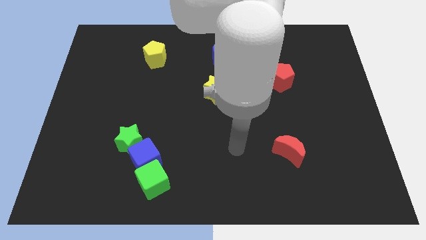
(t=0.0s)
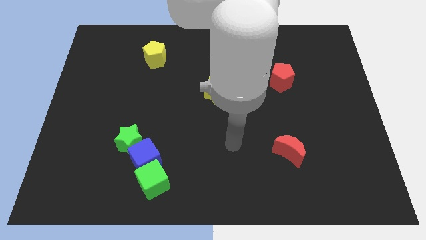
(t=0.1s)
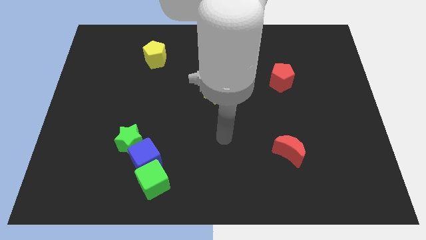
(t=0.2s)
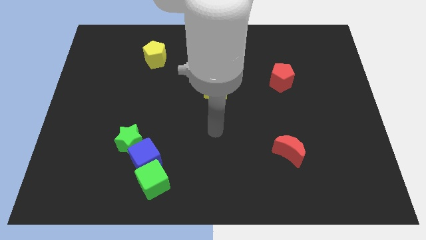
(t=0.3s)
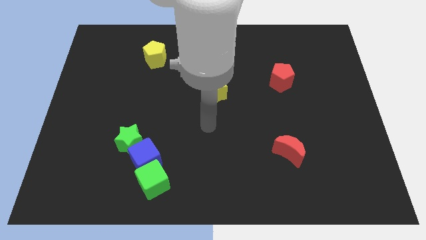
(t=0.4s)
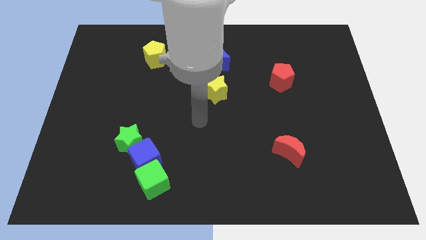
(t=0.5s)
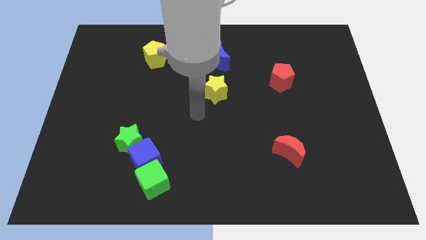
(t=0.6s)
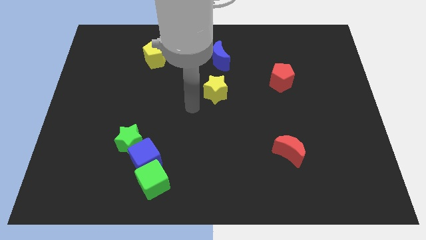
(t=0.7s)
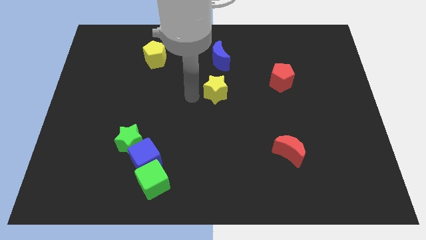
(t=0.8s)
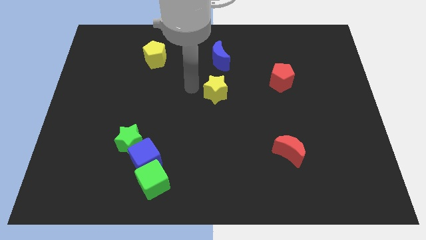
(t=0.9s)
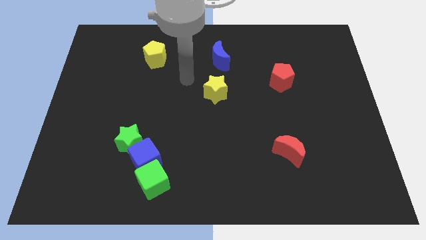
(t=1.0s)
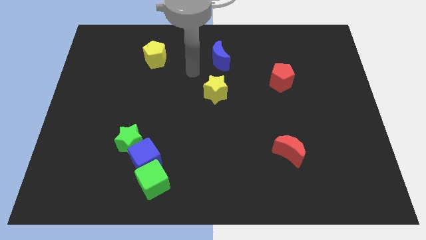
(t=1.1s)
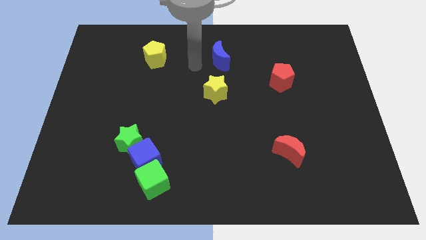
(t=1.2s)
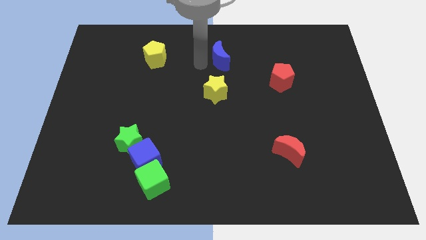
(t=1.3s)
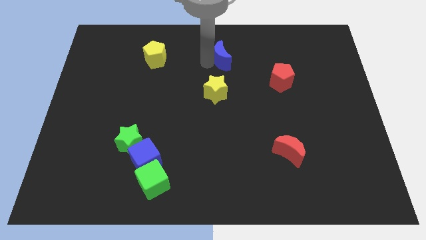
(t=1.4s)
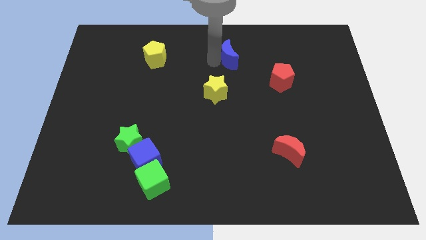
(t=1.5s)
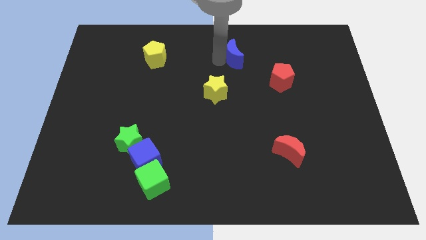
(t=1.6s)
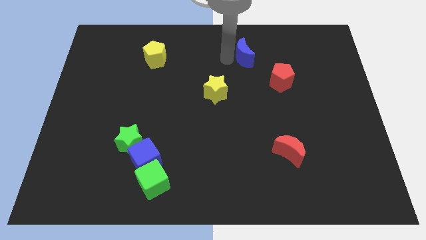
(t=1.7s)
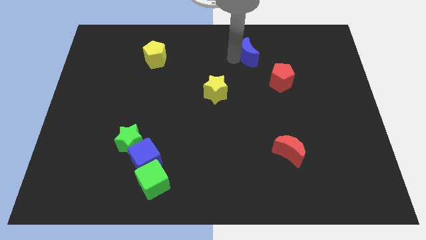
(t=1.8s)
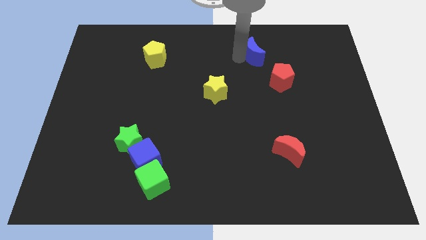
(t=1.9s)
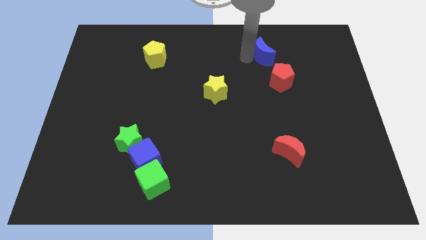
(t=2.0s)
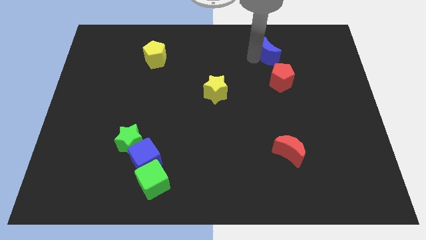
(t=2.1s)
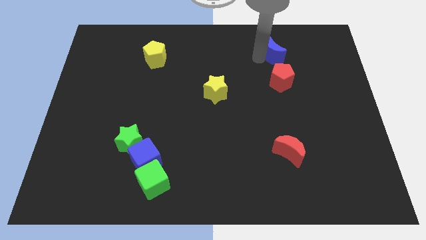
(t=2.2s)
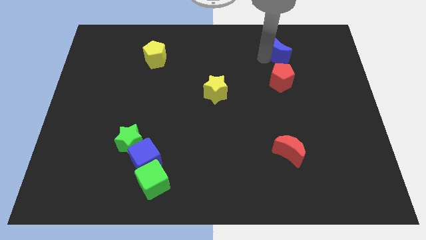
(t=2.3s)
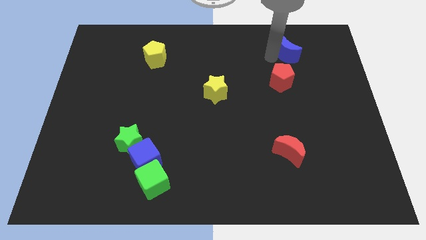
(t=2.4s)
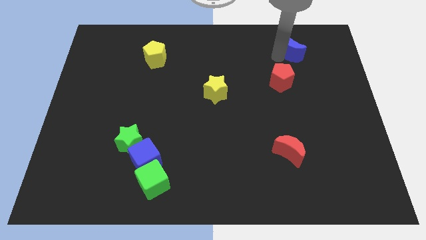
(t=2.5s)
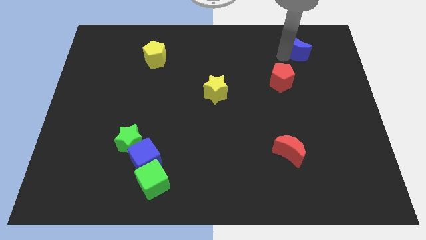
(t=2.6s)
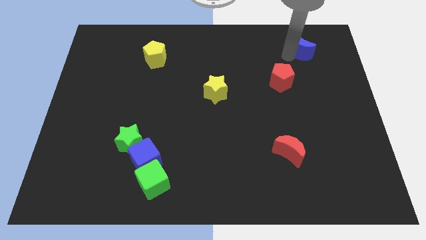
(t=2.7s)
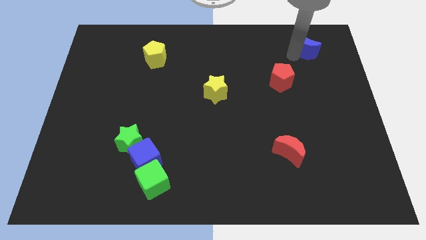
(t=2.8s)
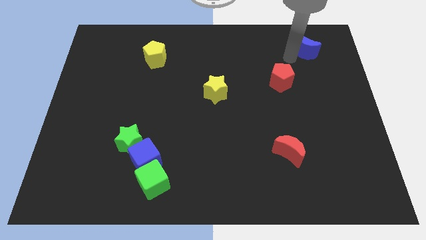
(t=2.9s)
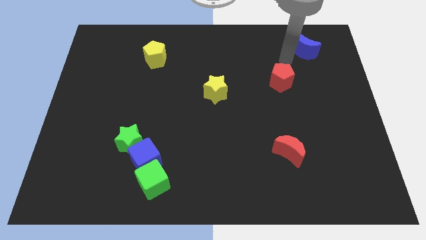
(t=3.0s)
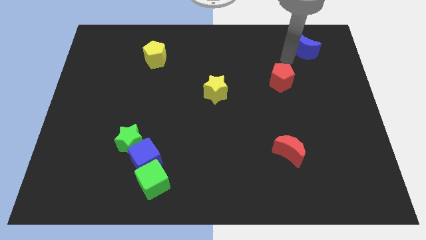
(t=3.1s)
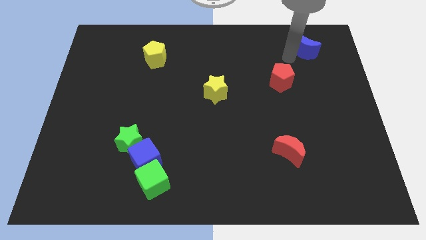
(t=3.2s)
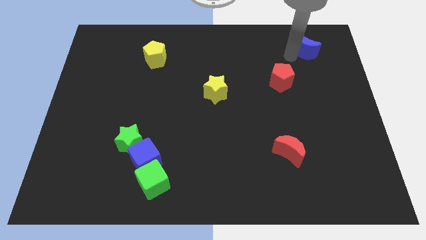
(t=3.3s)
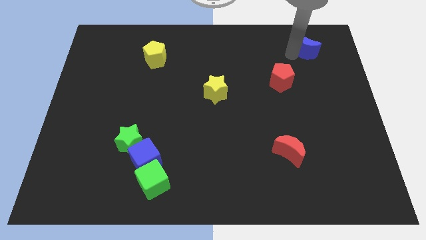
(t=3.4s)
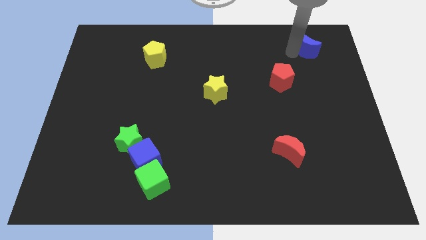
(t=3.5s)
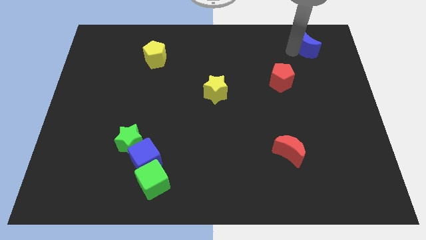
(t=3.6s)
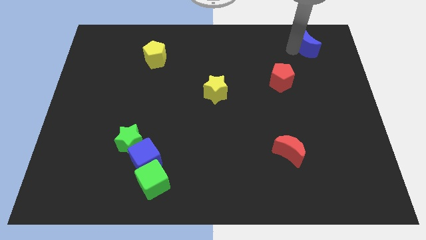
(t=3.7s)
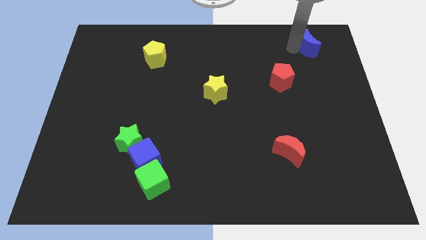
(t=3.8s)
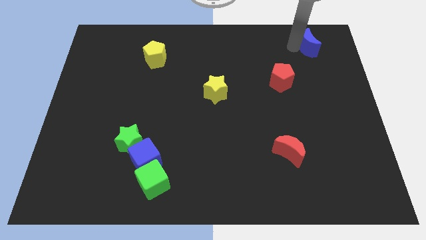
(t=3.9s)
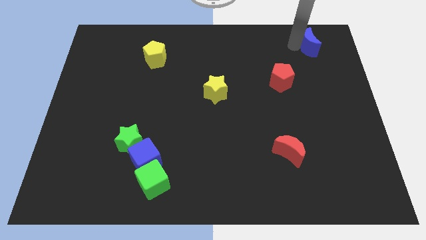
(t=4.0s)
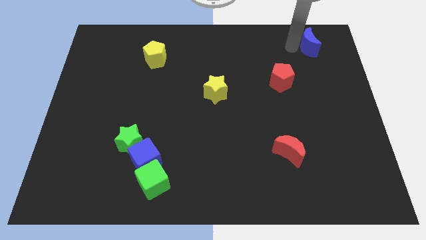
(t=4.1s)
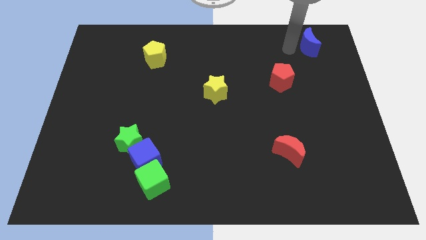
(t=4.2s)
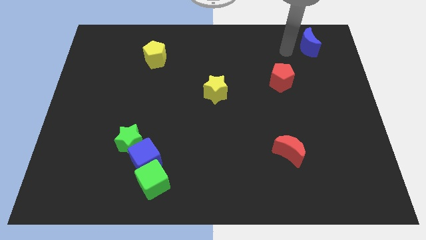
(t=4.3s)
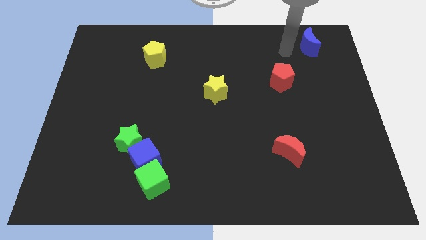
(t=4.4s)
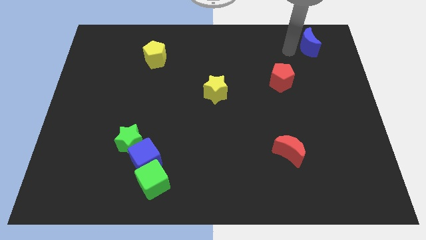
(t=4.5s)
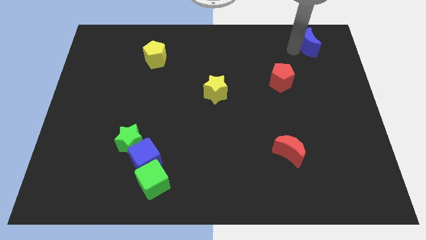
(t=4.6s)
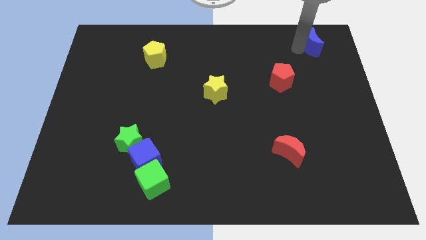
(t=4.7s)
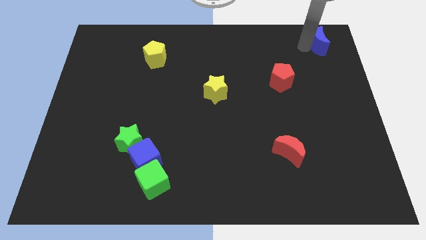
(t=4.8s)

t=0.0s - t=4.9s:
move the blue moon to the upper right corner

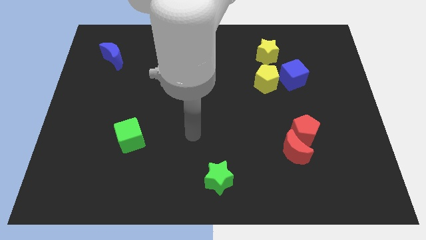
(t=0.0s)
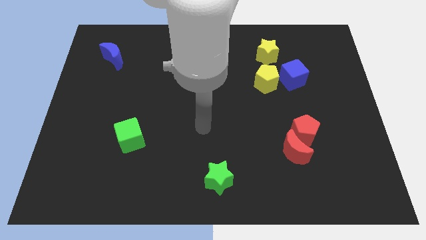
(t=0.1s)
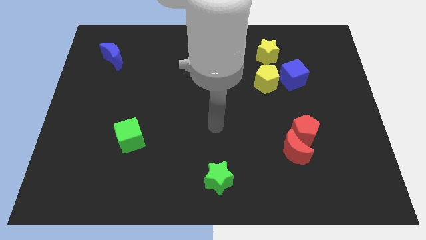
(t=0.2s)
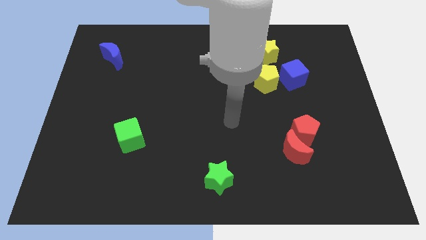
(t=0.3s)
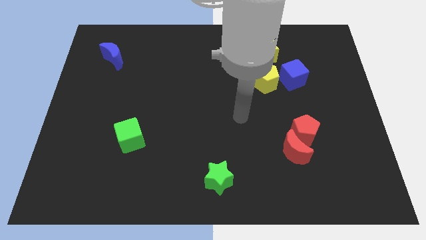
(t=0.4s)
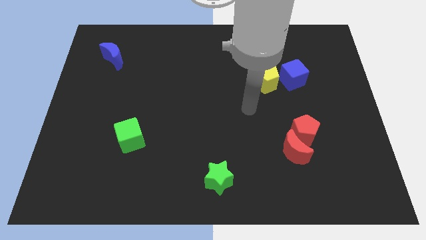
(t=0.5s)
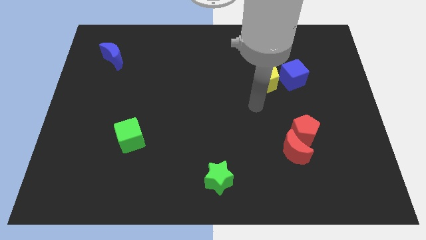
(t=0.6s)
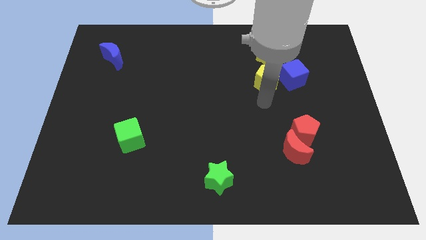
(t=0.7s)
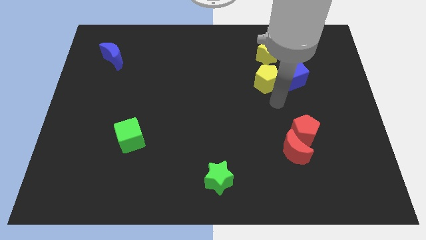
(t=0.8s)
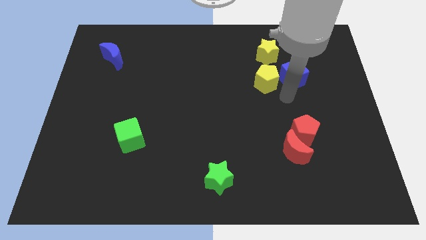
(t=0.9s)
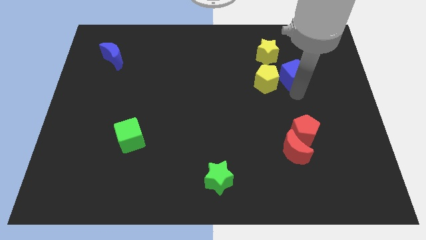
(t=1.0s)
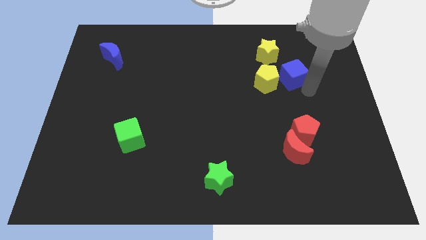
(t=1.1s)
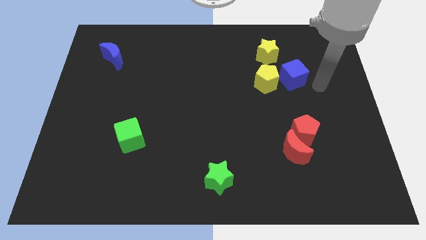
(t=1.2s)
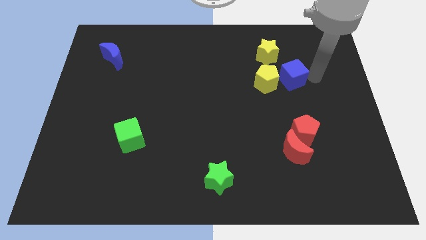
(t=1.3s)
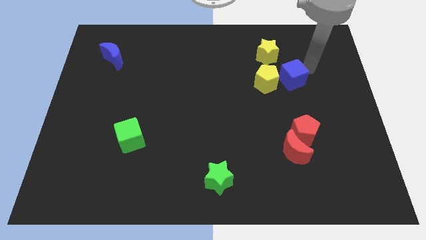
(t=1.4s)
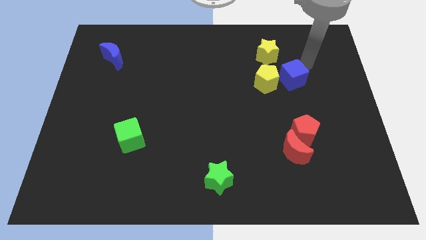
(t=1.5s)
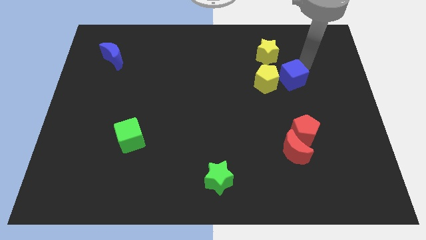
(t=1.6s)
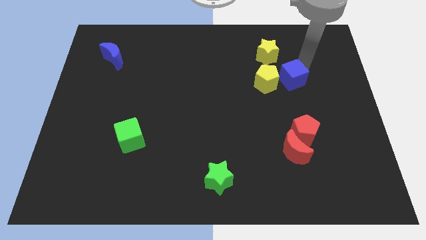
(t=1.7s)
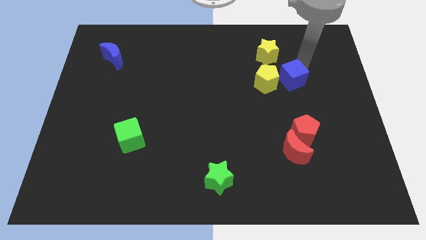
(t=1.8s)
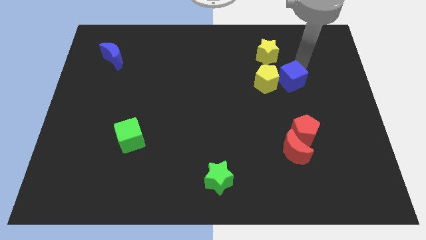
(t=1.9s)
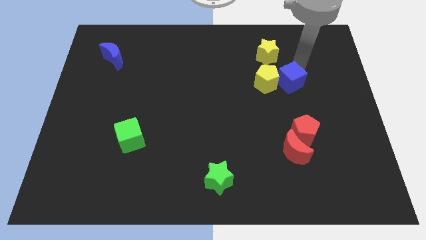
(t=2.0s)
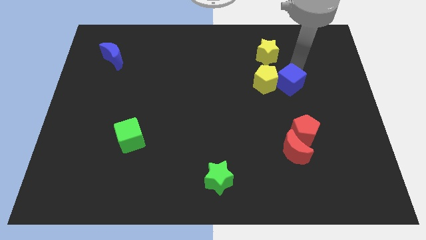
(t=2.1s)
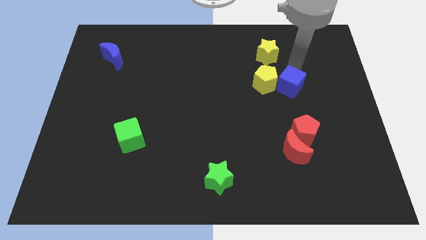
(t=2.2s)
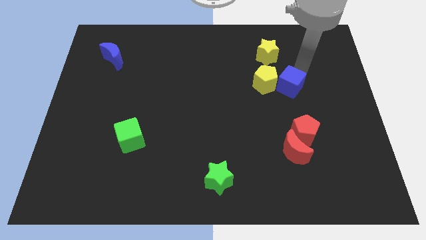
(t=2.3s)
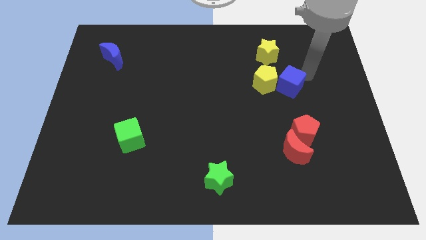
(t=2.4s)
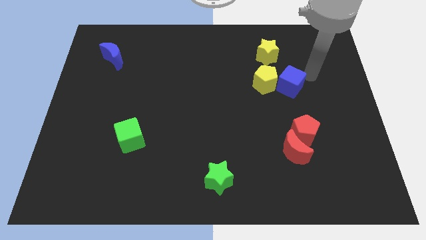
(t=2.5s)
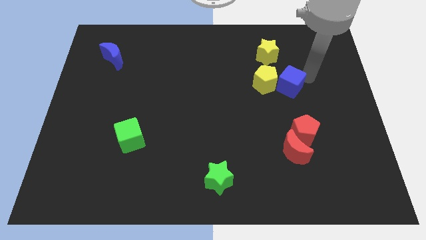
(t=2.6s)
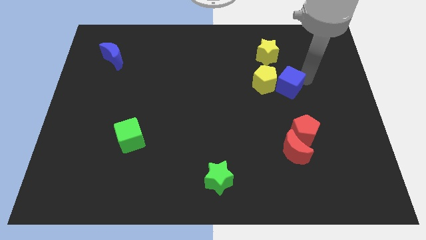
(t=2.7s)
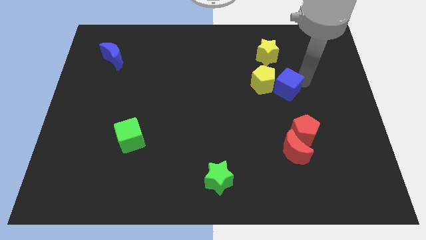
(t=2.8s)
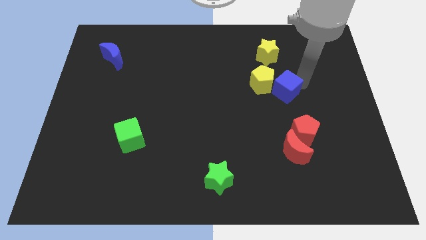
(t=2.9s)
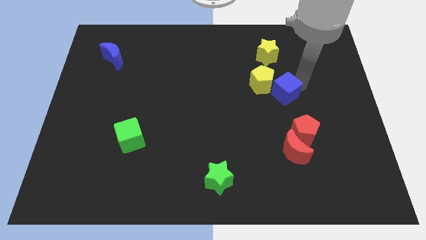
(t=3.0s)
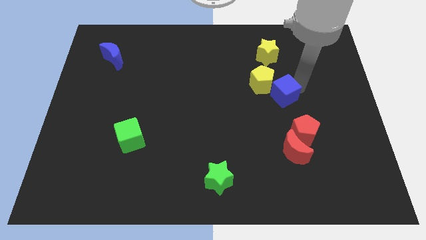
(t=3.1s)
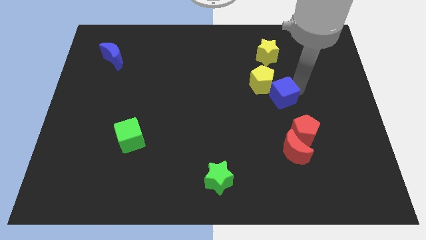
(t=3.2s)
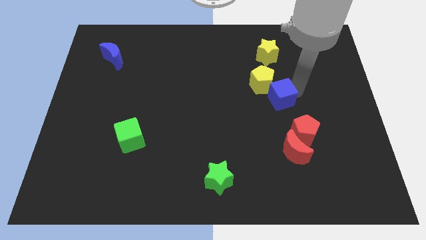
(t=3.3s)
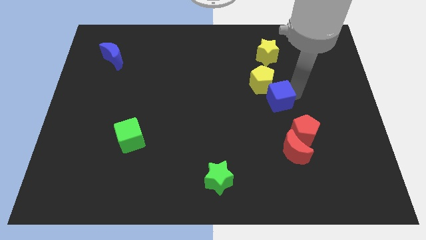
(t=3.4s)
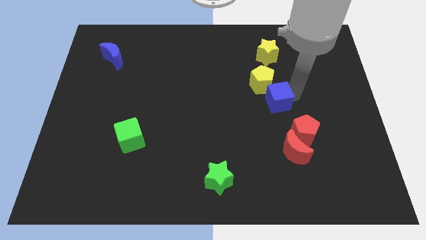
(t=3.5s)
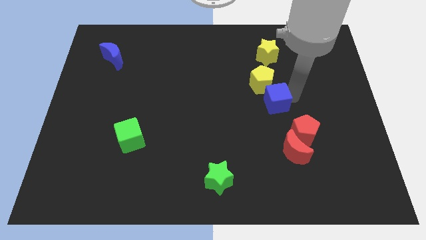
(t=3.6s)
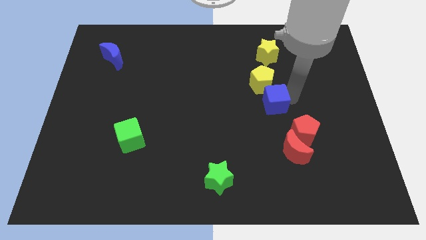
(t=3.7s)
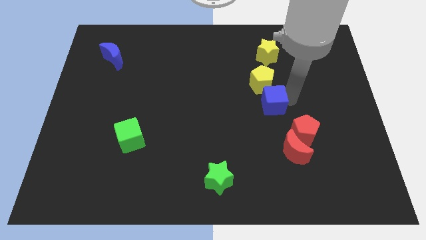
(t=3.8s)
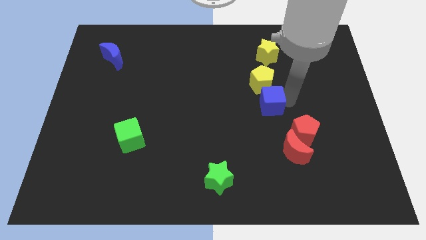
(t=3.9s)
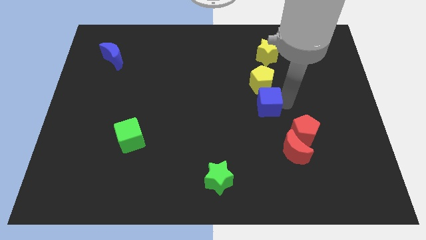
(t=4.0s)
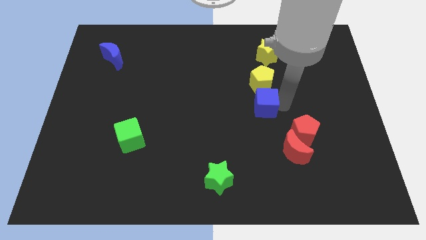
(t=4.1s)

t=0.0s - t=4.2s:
push the blue cube to the middle
